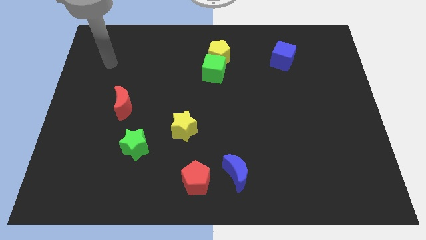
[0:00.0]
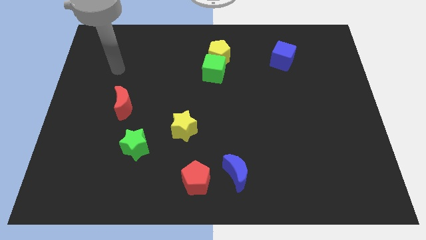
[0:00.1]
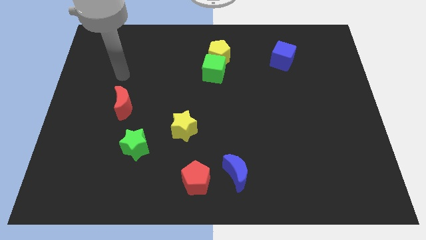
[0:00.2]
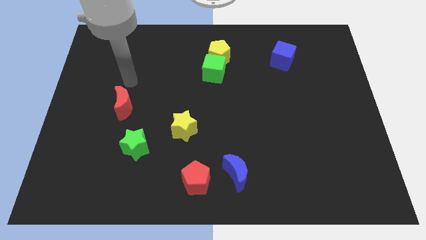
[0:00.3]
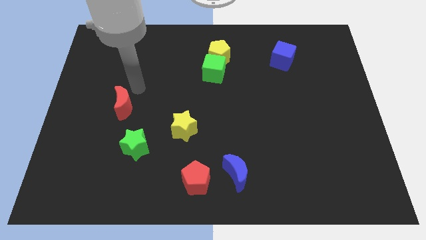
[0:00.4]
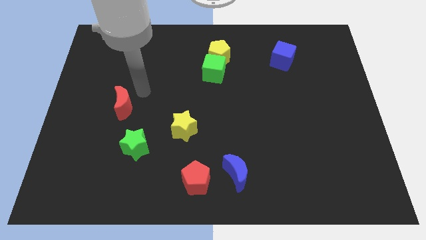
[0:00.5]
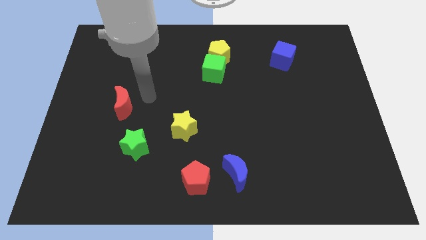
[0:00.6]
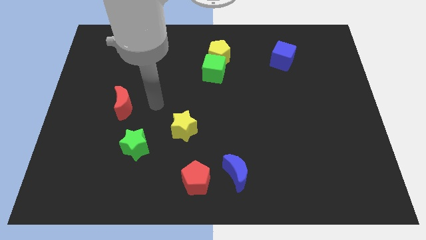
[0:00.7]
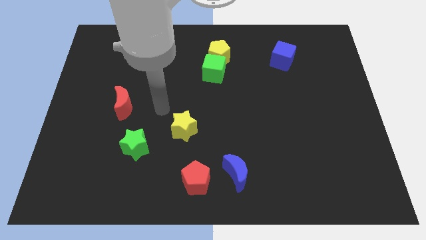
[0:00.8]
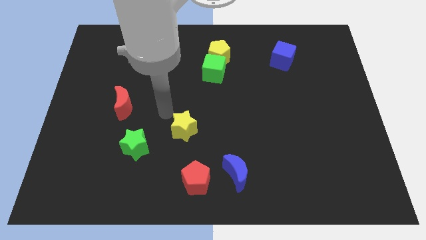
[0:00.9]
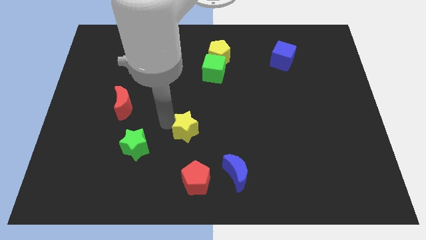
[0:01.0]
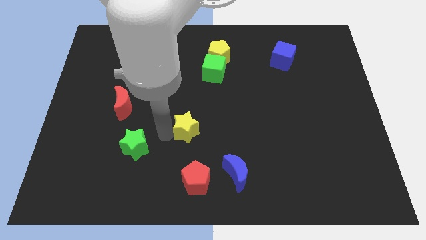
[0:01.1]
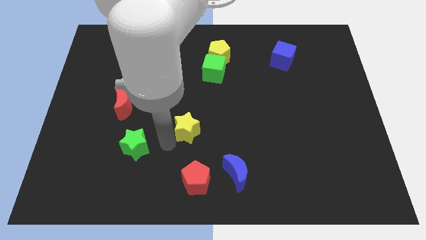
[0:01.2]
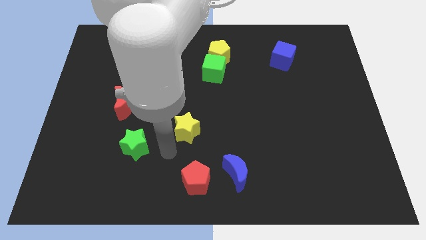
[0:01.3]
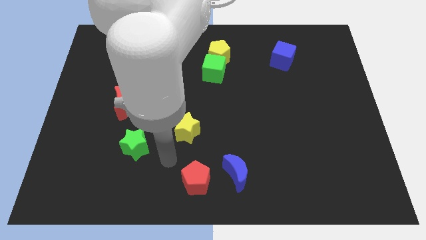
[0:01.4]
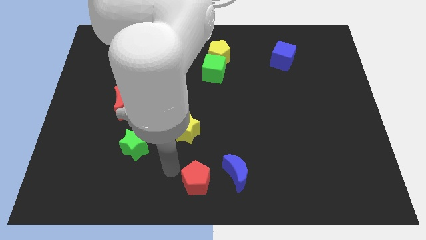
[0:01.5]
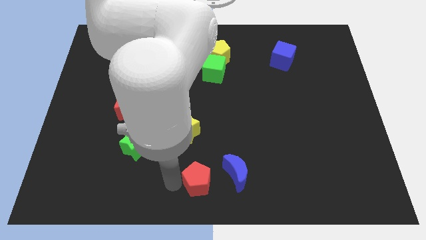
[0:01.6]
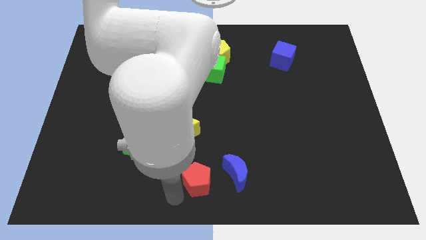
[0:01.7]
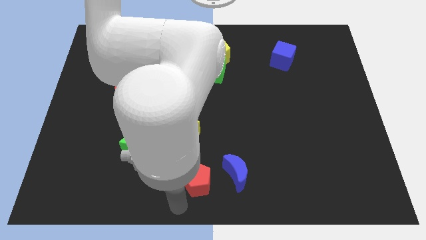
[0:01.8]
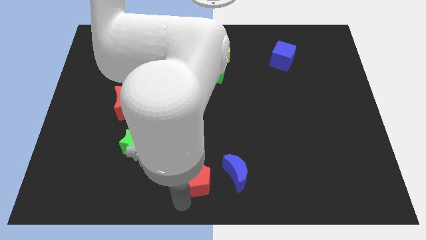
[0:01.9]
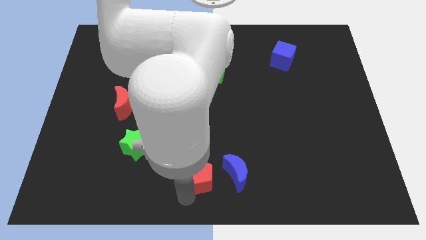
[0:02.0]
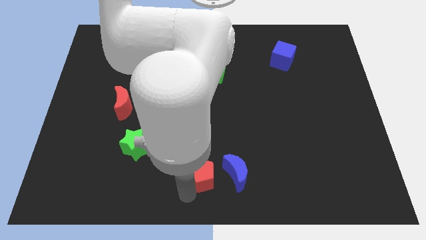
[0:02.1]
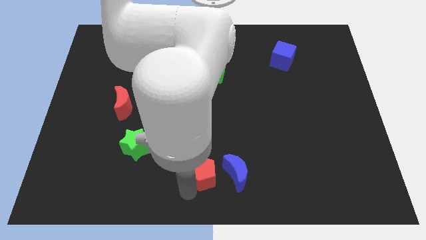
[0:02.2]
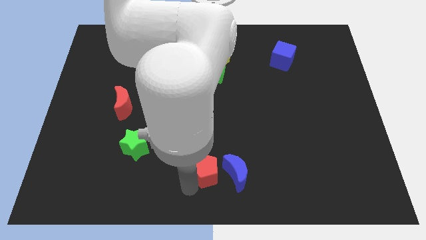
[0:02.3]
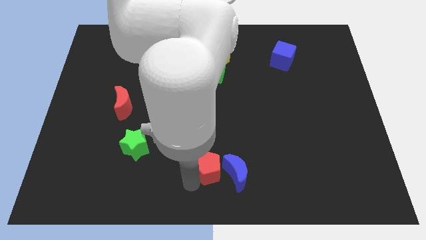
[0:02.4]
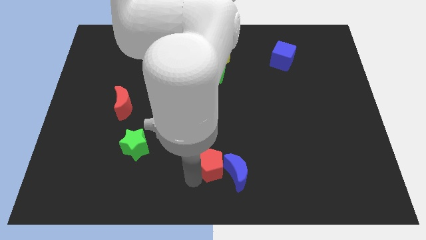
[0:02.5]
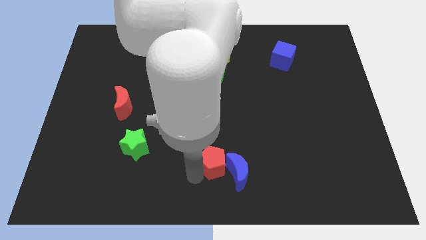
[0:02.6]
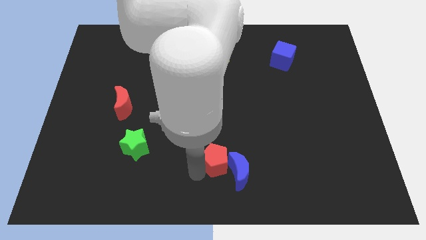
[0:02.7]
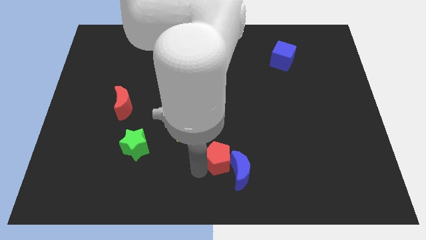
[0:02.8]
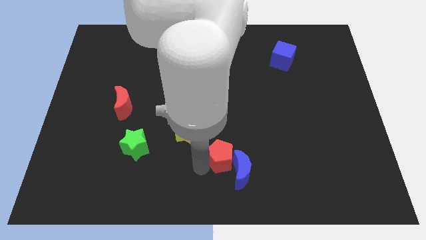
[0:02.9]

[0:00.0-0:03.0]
push the red pentagon up and then right slightly

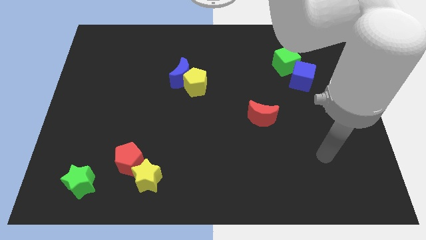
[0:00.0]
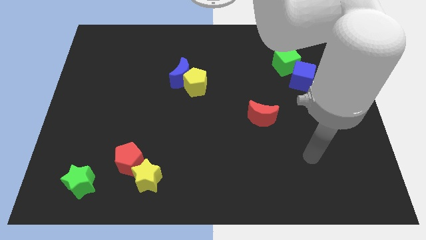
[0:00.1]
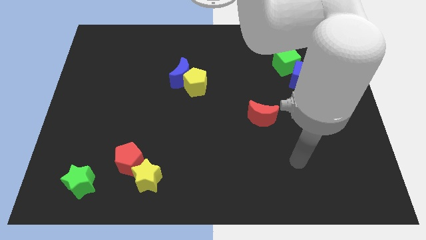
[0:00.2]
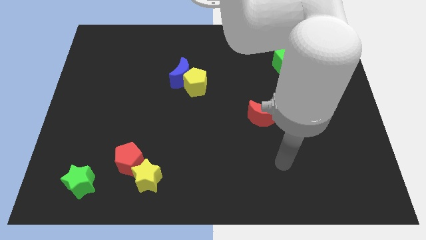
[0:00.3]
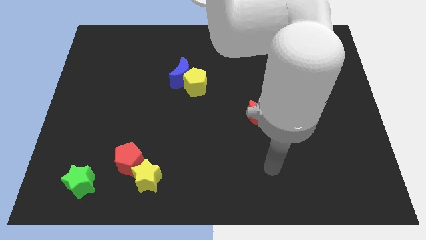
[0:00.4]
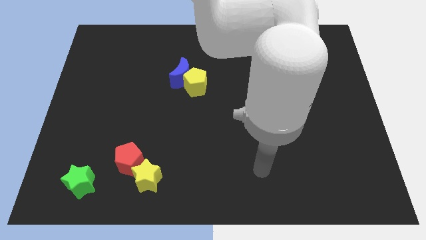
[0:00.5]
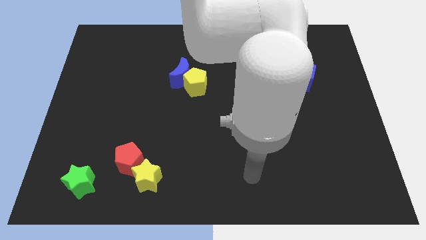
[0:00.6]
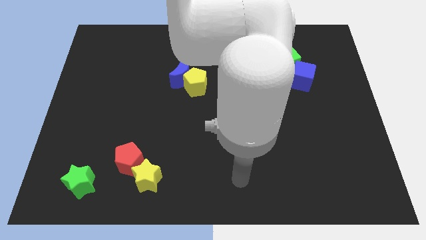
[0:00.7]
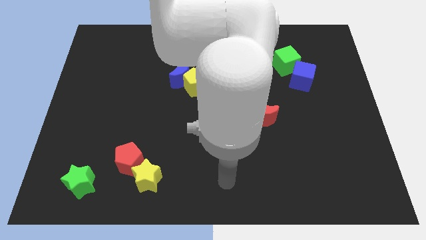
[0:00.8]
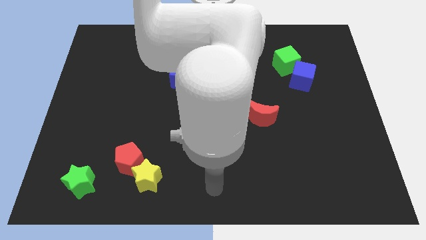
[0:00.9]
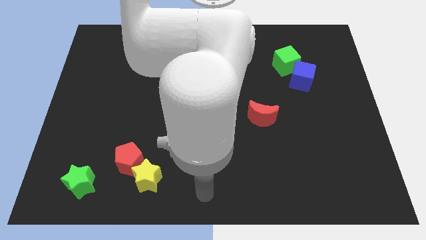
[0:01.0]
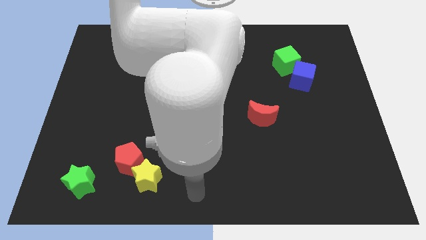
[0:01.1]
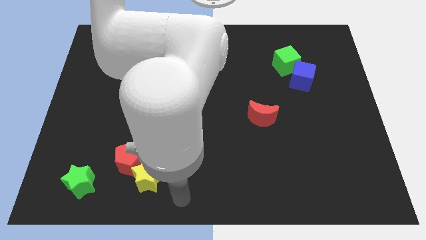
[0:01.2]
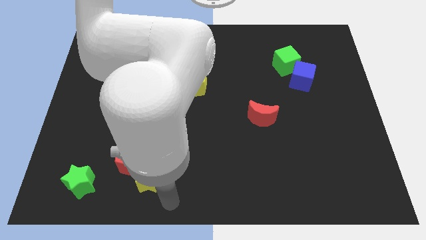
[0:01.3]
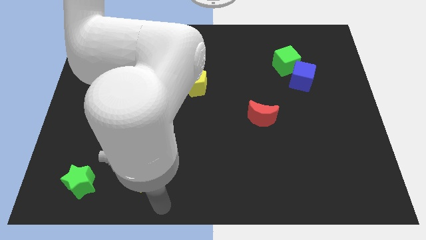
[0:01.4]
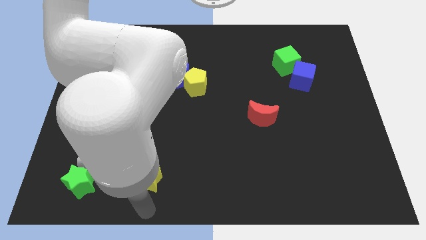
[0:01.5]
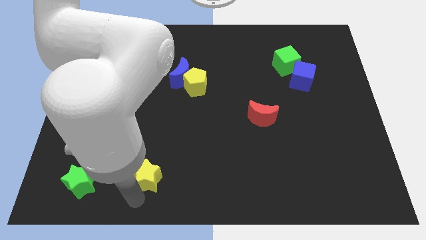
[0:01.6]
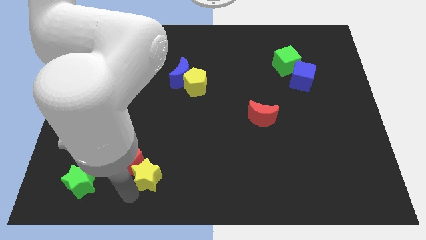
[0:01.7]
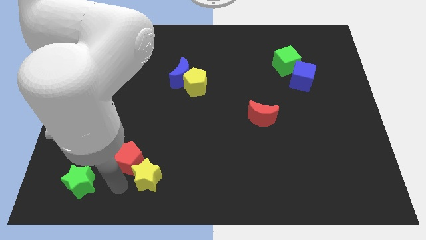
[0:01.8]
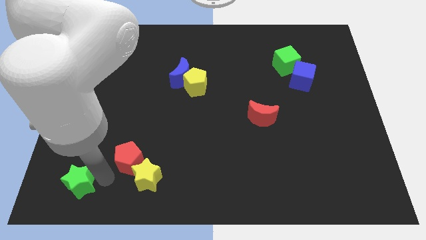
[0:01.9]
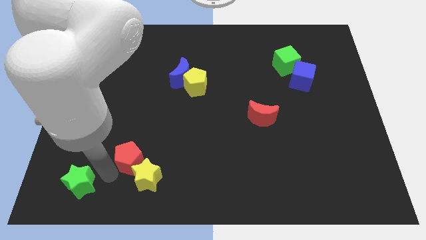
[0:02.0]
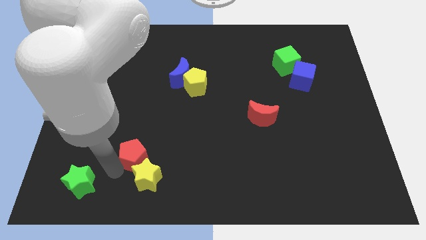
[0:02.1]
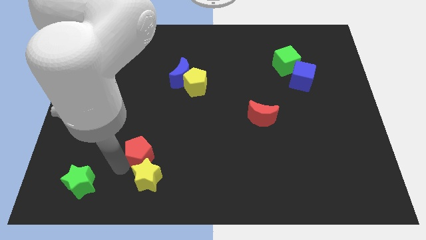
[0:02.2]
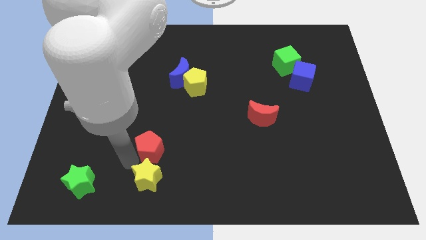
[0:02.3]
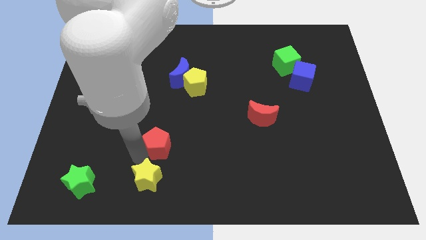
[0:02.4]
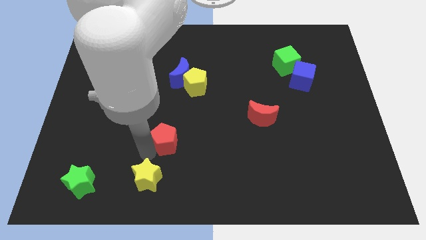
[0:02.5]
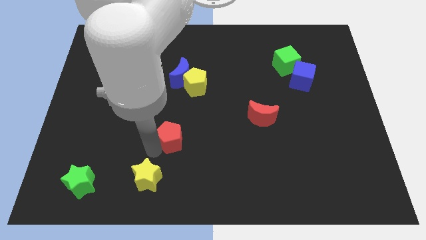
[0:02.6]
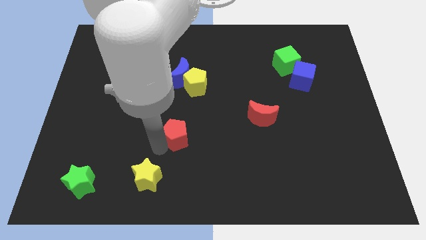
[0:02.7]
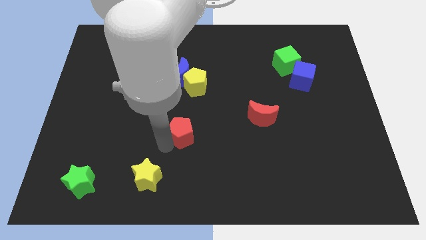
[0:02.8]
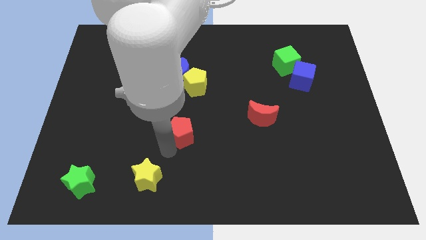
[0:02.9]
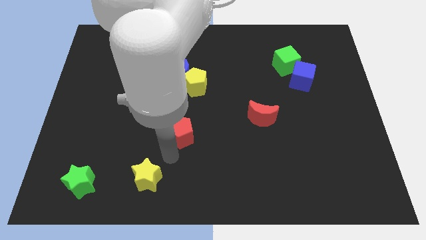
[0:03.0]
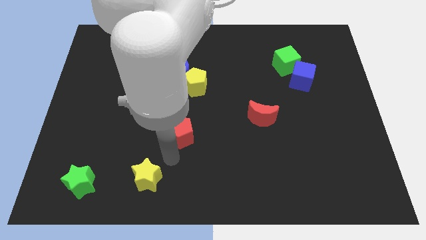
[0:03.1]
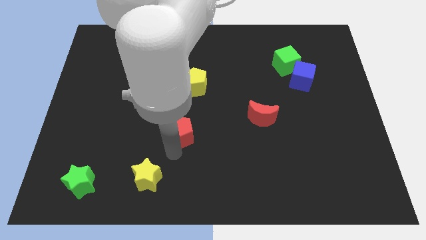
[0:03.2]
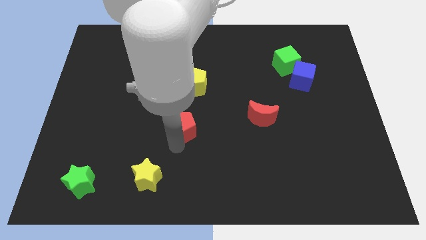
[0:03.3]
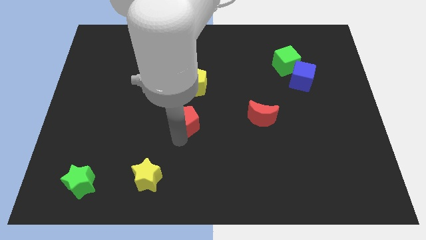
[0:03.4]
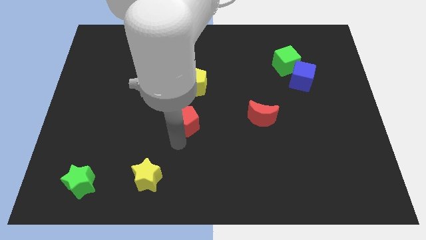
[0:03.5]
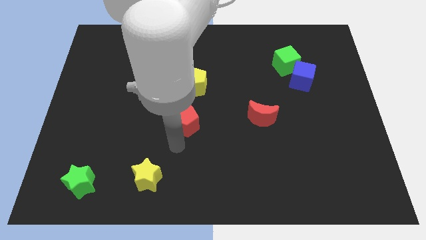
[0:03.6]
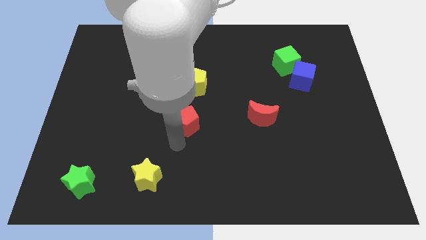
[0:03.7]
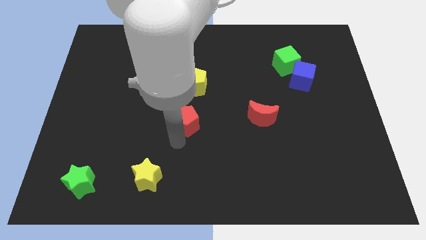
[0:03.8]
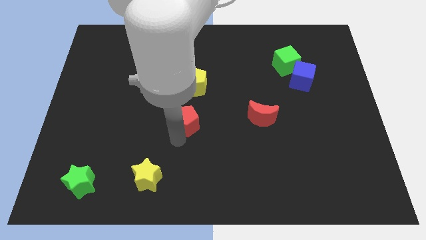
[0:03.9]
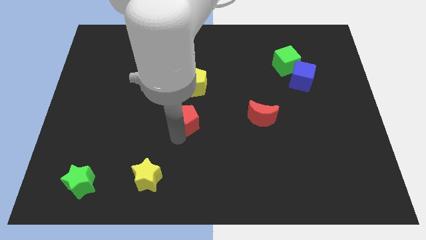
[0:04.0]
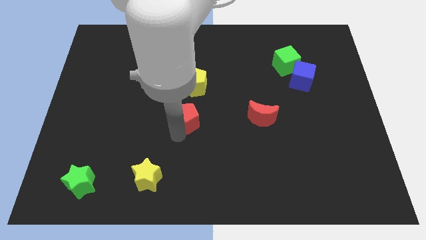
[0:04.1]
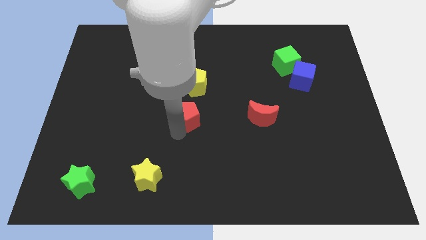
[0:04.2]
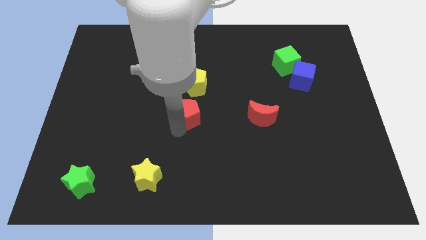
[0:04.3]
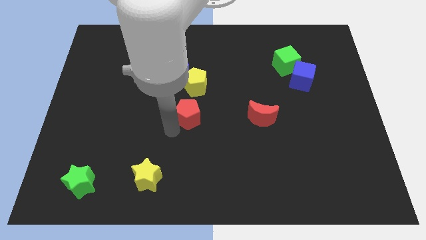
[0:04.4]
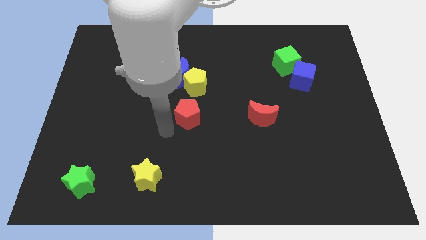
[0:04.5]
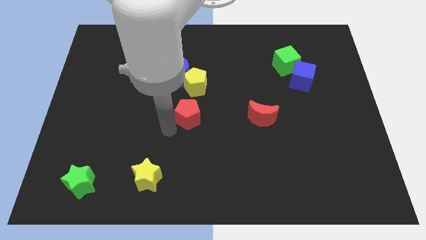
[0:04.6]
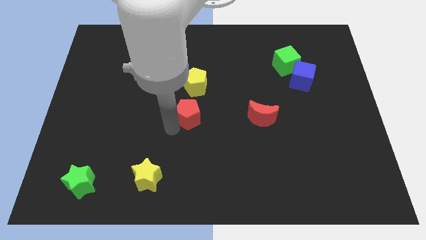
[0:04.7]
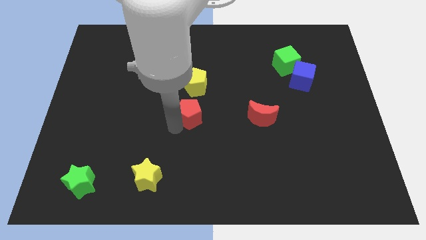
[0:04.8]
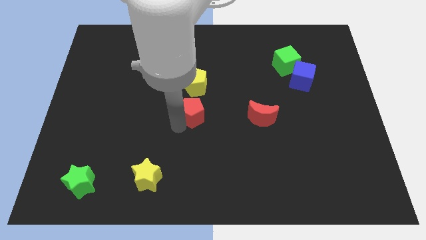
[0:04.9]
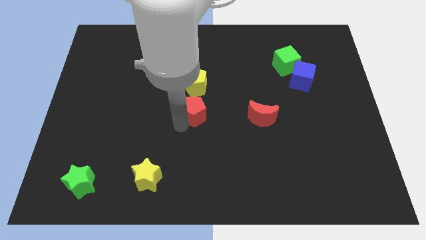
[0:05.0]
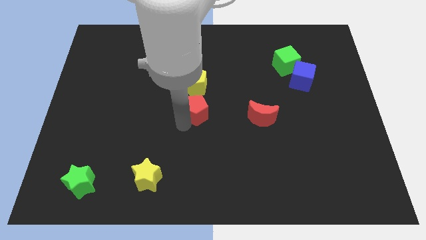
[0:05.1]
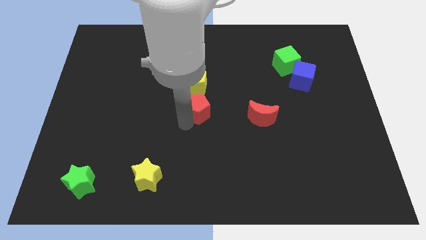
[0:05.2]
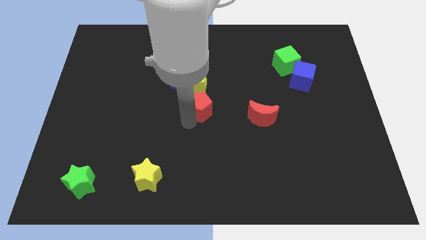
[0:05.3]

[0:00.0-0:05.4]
slide the red pentagon diagonally up and right
